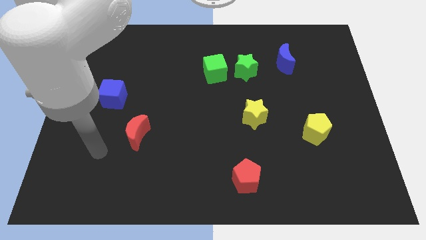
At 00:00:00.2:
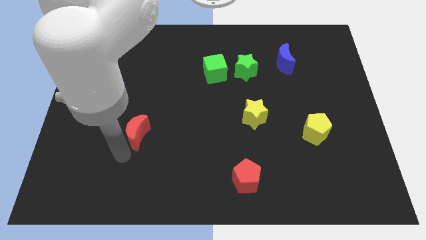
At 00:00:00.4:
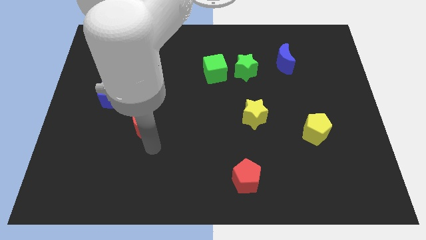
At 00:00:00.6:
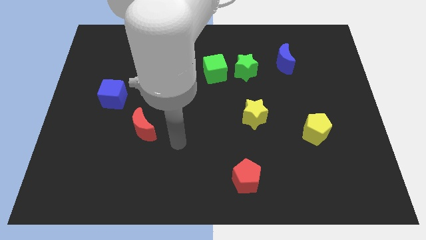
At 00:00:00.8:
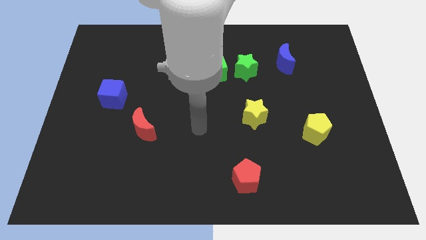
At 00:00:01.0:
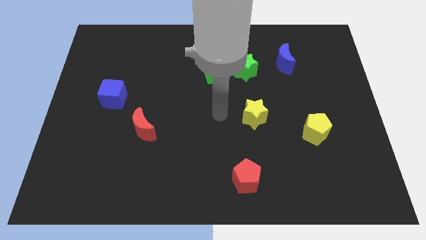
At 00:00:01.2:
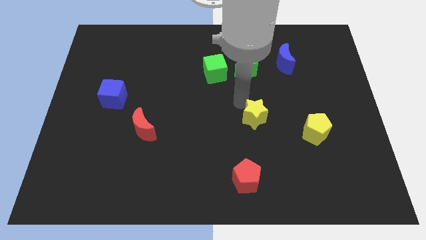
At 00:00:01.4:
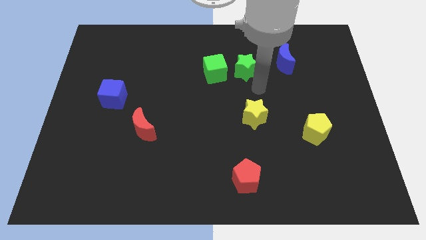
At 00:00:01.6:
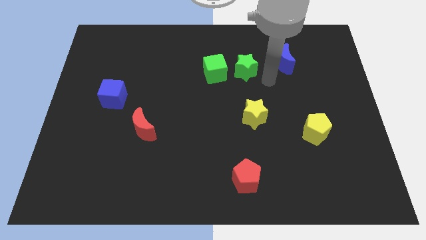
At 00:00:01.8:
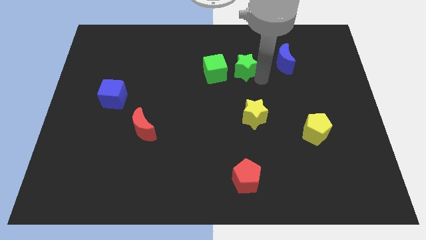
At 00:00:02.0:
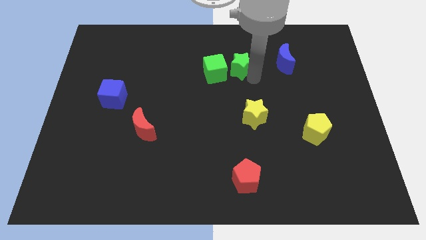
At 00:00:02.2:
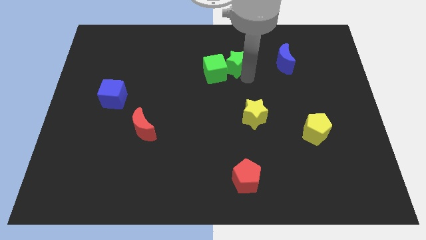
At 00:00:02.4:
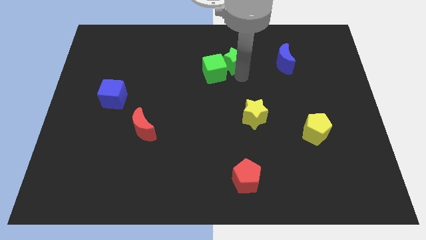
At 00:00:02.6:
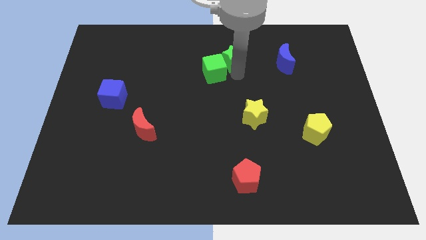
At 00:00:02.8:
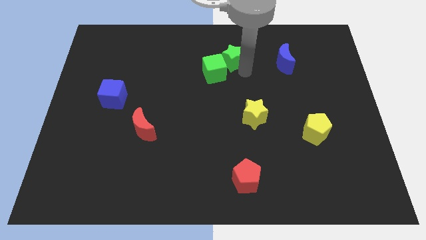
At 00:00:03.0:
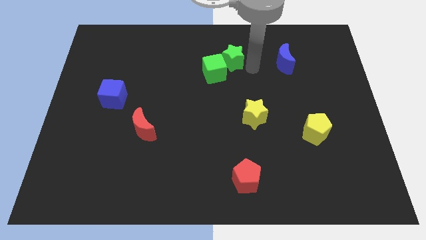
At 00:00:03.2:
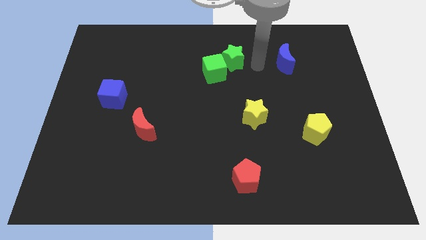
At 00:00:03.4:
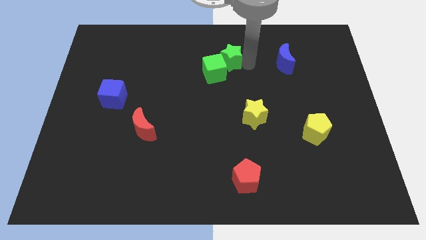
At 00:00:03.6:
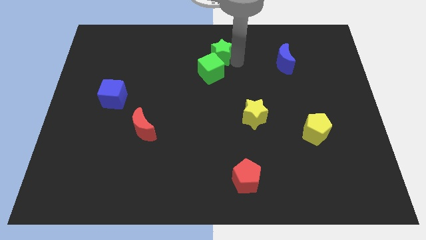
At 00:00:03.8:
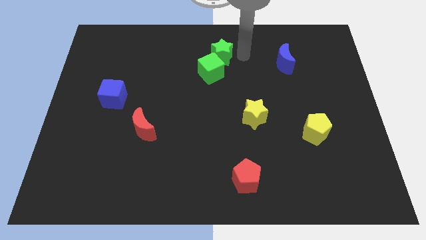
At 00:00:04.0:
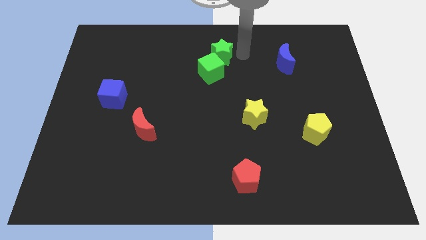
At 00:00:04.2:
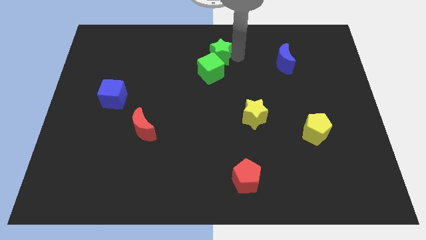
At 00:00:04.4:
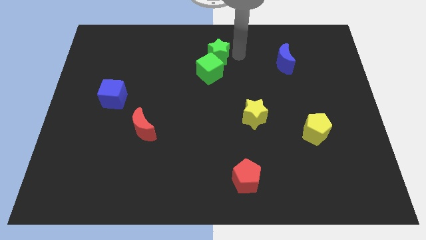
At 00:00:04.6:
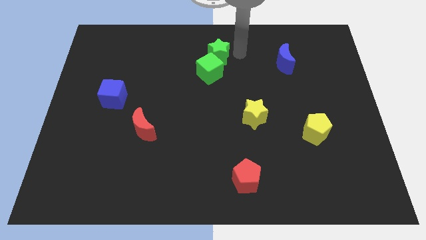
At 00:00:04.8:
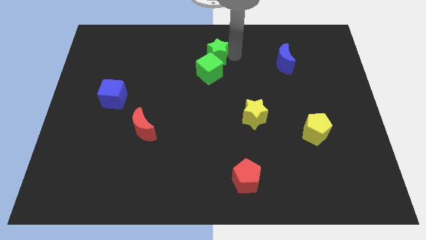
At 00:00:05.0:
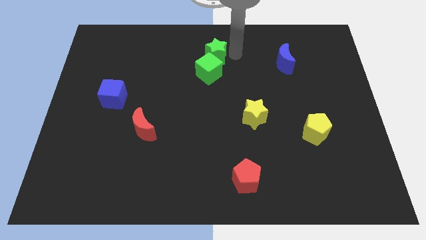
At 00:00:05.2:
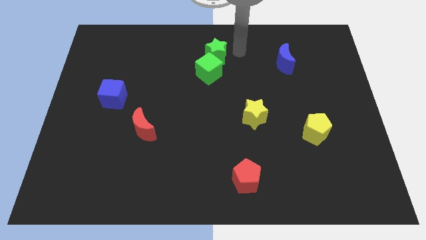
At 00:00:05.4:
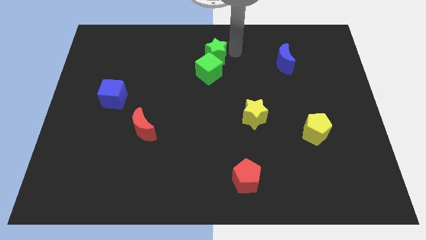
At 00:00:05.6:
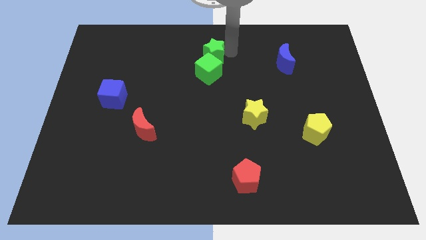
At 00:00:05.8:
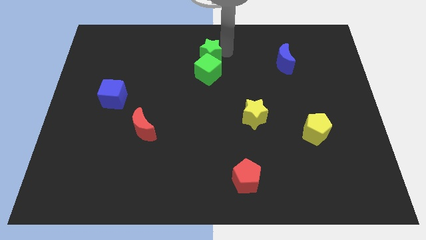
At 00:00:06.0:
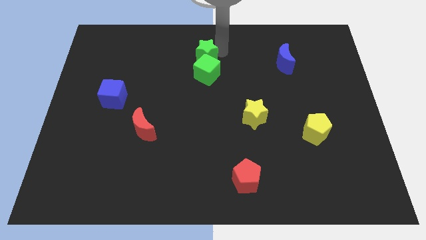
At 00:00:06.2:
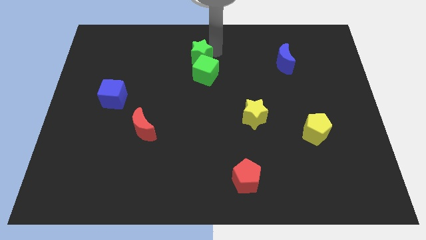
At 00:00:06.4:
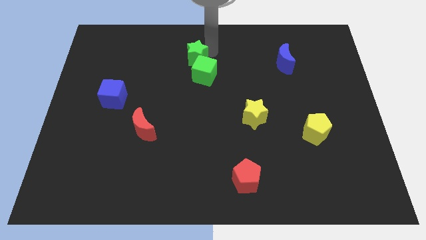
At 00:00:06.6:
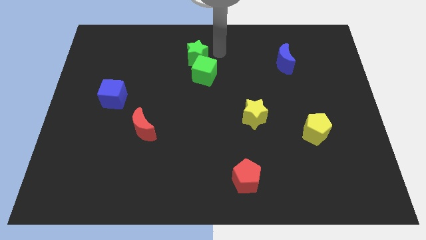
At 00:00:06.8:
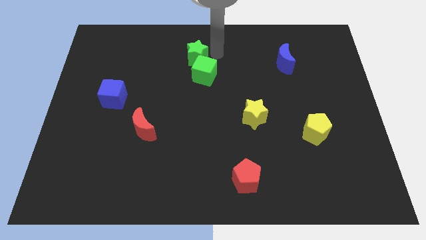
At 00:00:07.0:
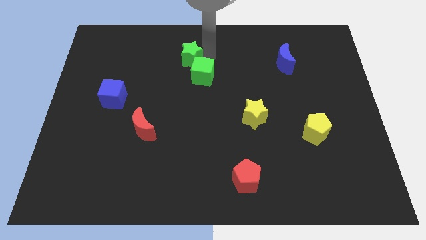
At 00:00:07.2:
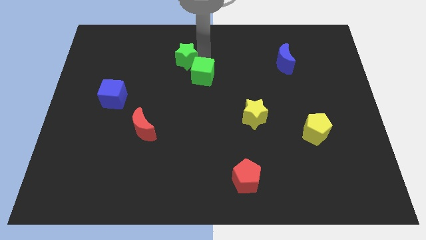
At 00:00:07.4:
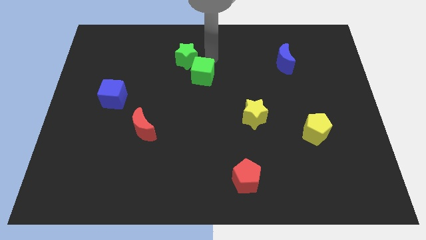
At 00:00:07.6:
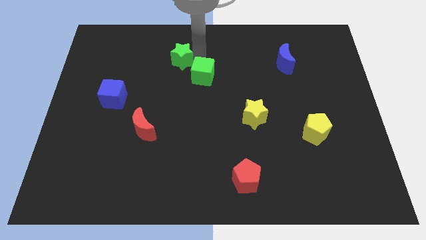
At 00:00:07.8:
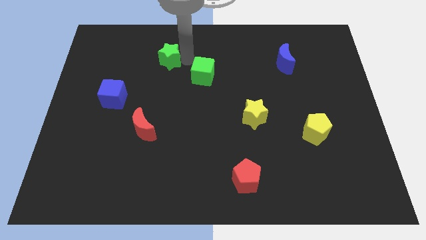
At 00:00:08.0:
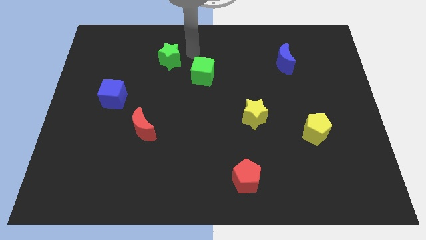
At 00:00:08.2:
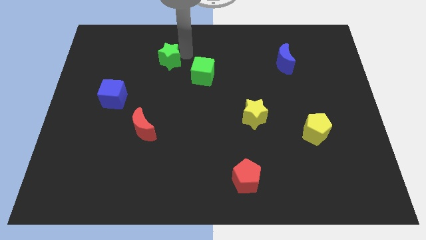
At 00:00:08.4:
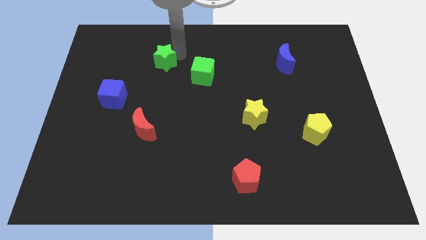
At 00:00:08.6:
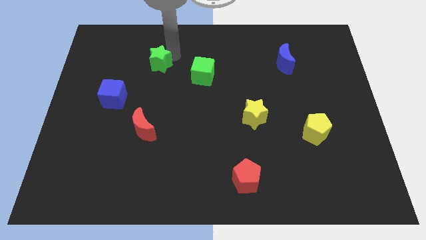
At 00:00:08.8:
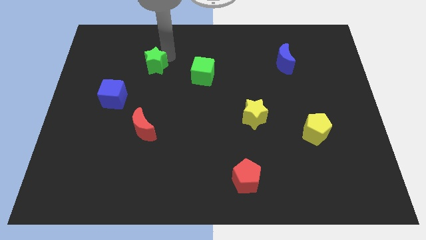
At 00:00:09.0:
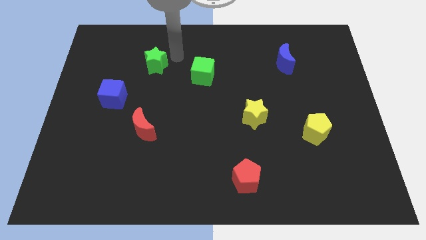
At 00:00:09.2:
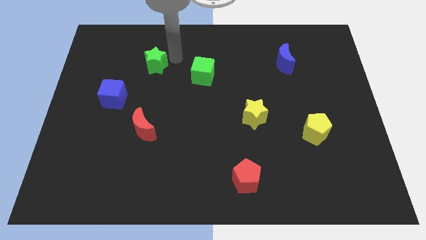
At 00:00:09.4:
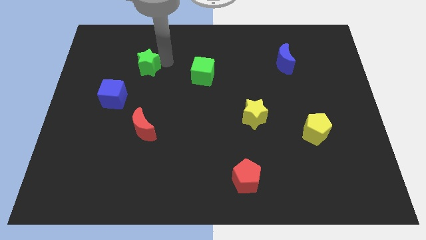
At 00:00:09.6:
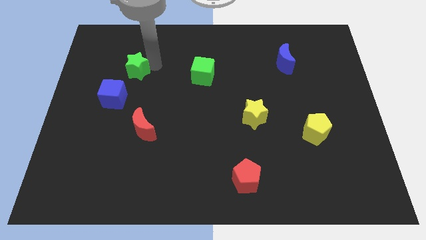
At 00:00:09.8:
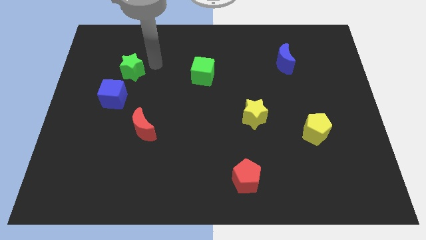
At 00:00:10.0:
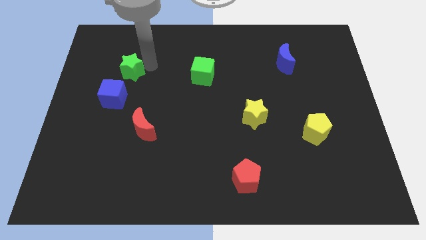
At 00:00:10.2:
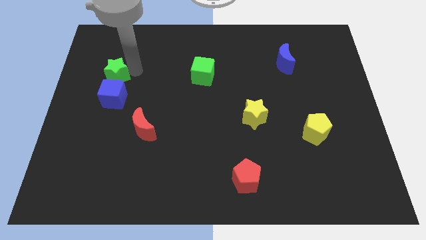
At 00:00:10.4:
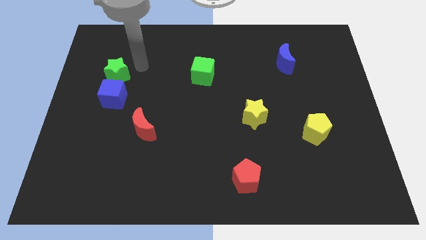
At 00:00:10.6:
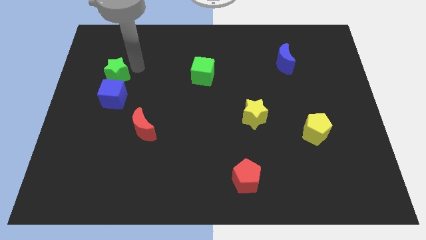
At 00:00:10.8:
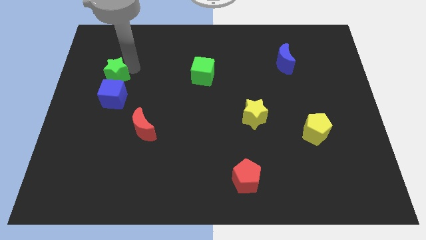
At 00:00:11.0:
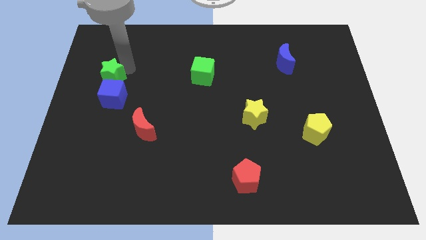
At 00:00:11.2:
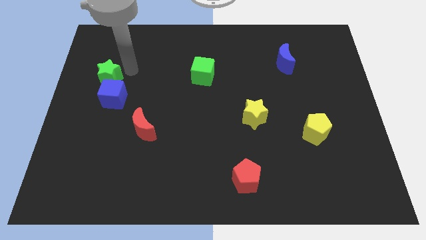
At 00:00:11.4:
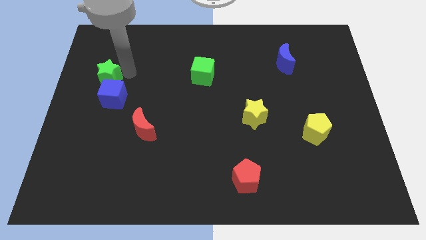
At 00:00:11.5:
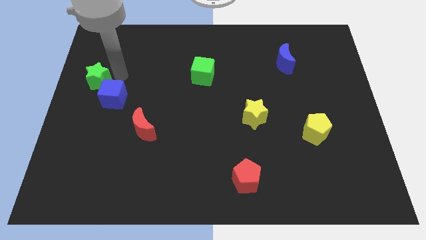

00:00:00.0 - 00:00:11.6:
move the green star to the left side of the board
